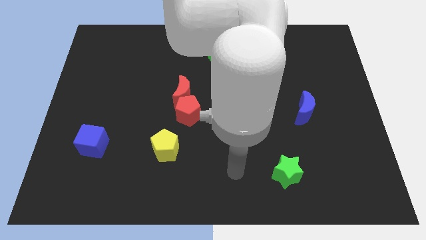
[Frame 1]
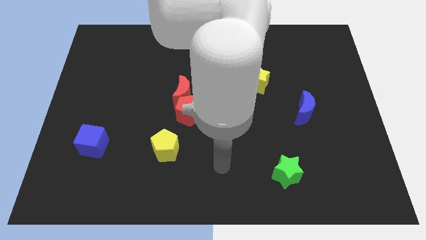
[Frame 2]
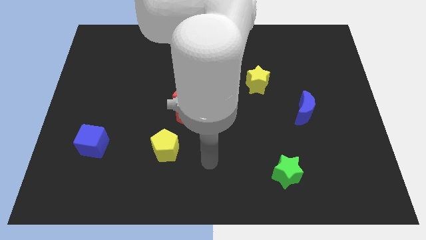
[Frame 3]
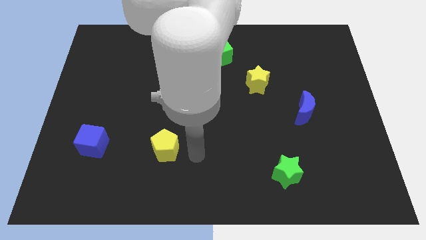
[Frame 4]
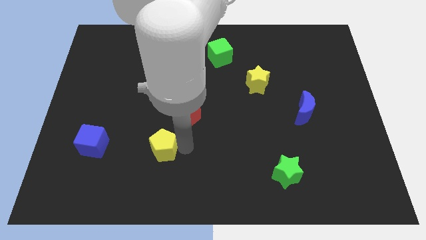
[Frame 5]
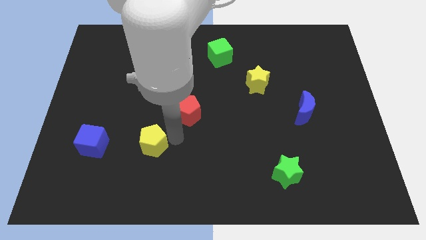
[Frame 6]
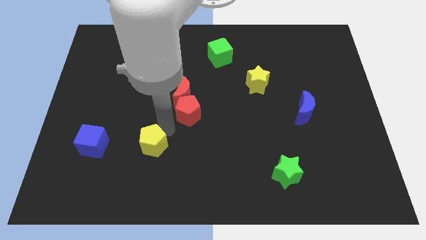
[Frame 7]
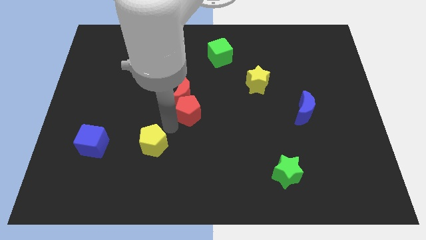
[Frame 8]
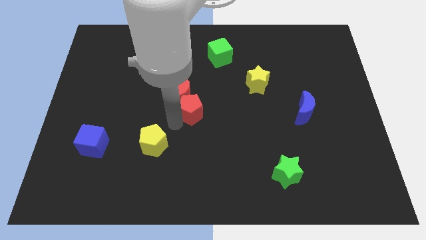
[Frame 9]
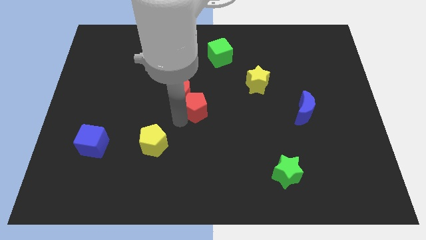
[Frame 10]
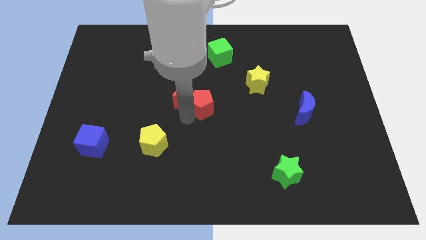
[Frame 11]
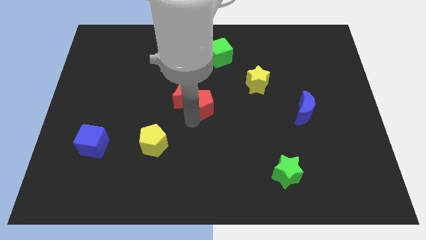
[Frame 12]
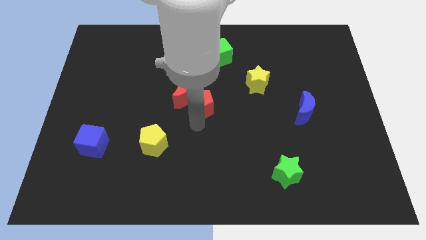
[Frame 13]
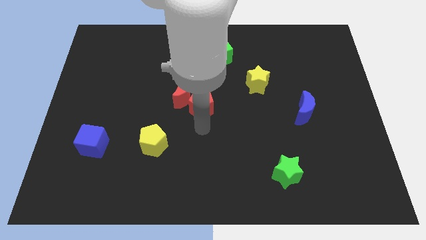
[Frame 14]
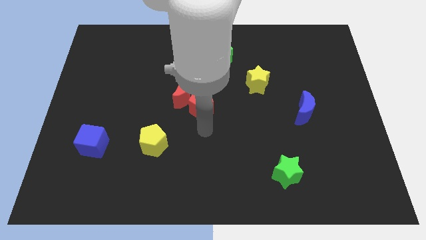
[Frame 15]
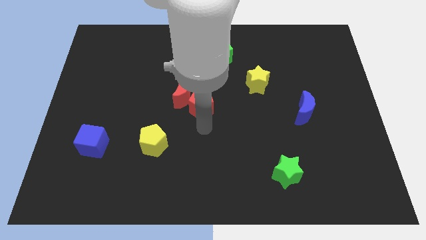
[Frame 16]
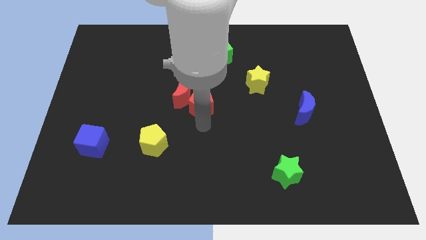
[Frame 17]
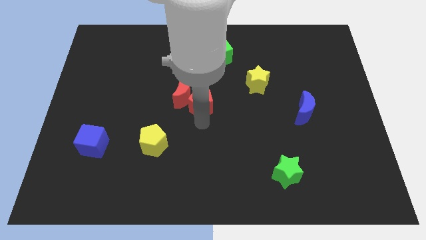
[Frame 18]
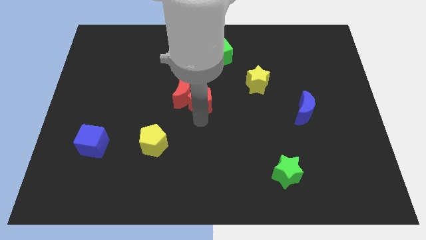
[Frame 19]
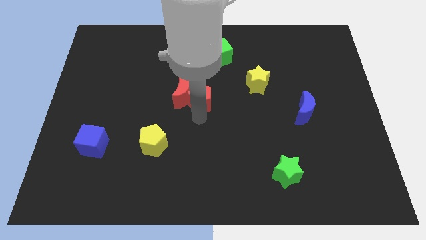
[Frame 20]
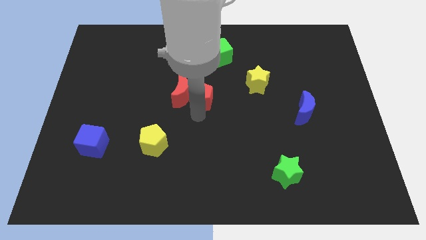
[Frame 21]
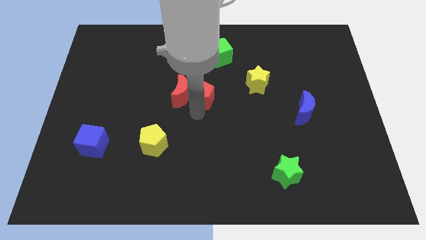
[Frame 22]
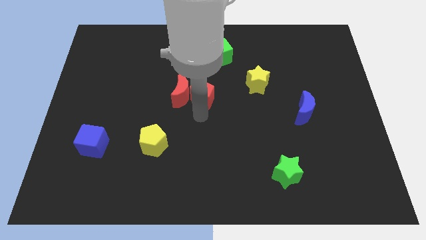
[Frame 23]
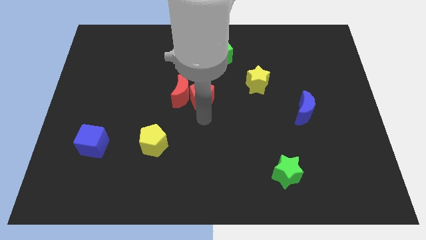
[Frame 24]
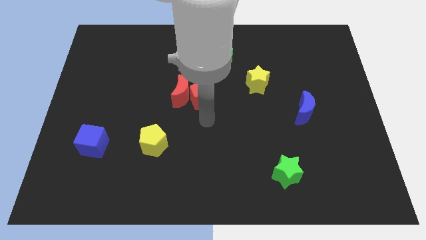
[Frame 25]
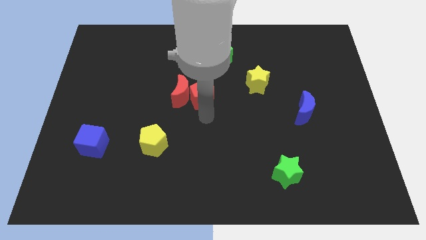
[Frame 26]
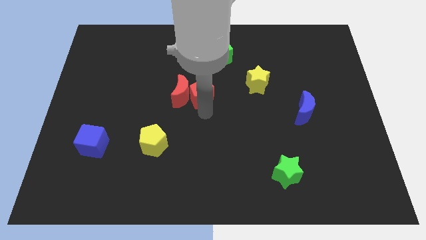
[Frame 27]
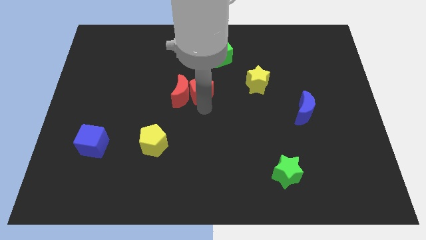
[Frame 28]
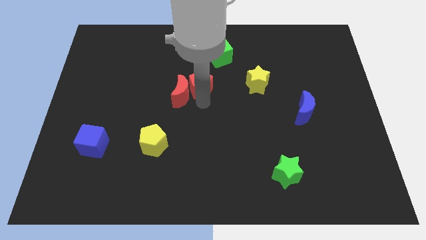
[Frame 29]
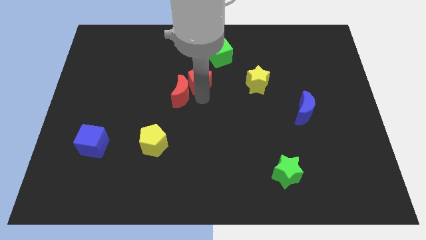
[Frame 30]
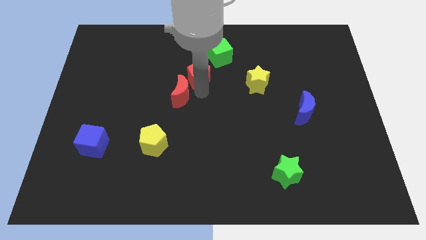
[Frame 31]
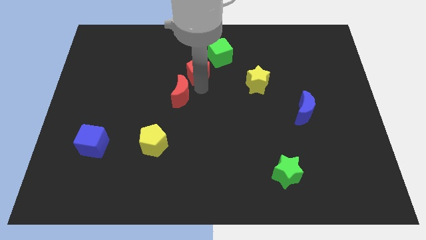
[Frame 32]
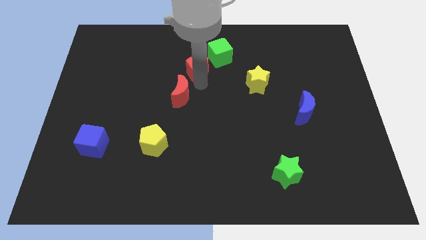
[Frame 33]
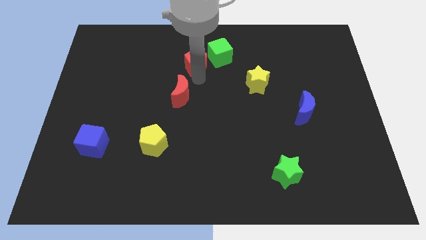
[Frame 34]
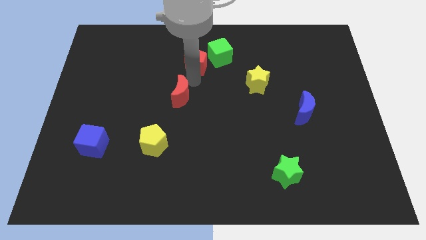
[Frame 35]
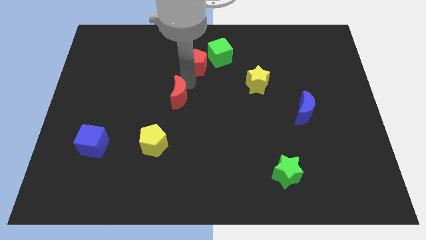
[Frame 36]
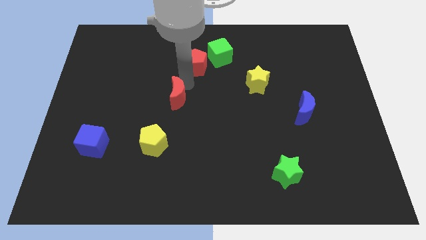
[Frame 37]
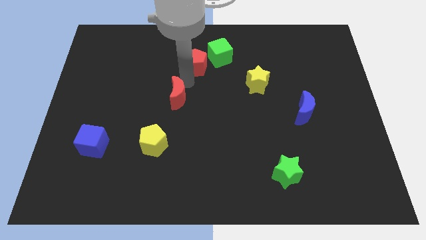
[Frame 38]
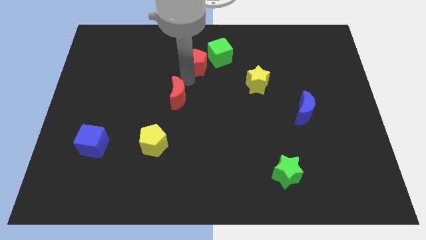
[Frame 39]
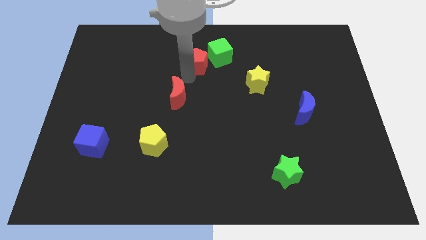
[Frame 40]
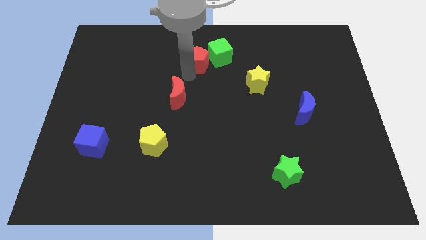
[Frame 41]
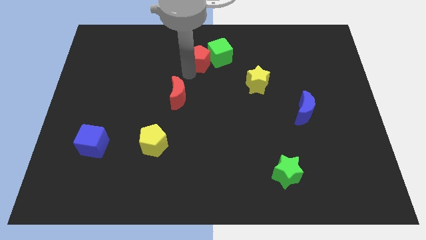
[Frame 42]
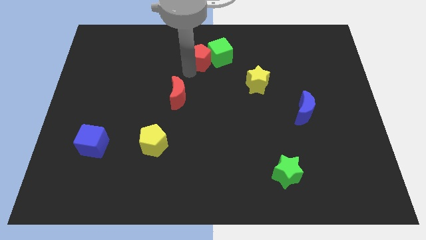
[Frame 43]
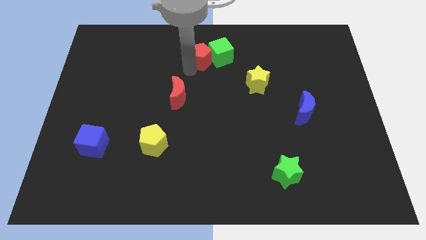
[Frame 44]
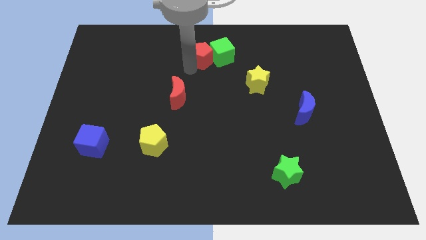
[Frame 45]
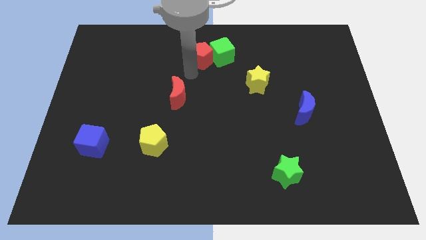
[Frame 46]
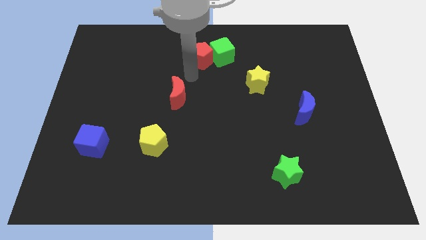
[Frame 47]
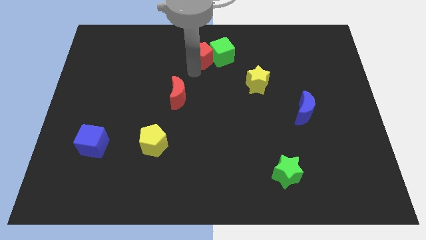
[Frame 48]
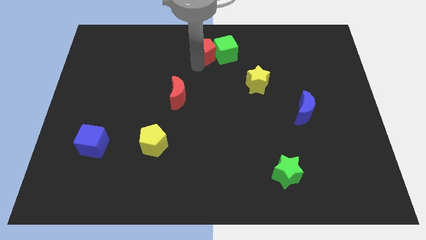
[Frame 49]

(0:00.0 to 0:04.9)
push the red pentagon to the top side

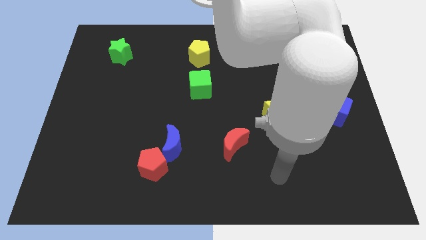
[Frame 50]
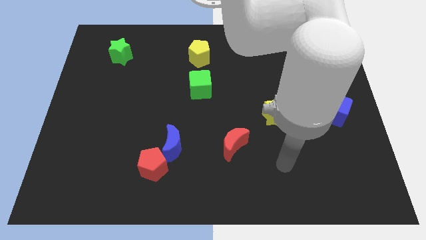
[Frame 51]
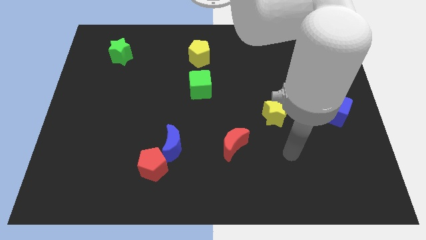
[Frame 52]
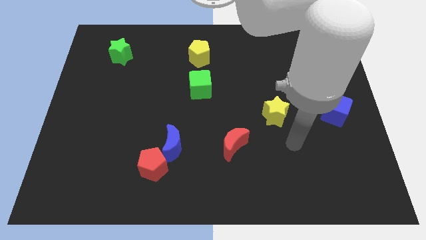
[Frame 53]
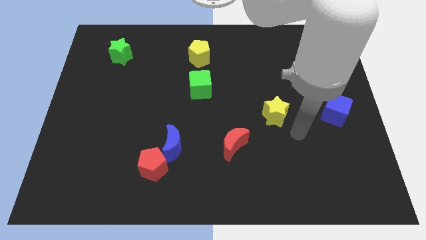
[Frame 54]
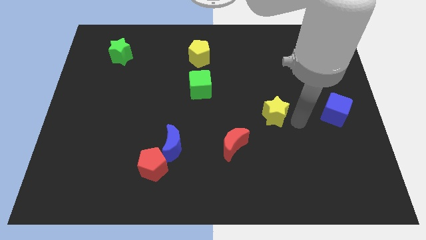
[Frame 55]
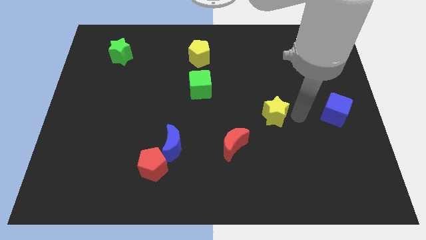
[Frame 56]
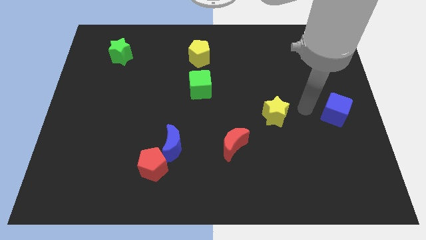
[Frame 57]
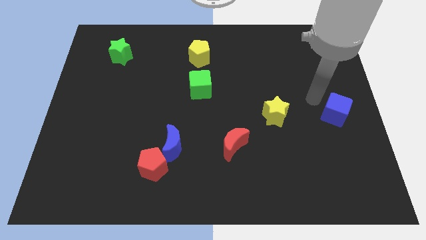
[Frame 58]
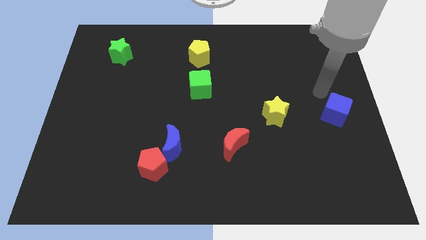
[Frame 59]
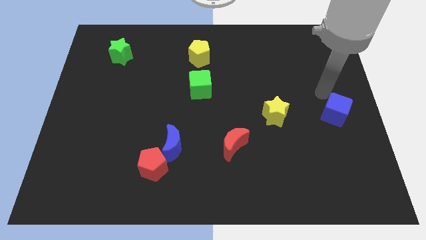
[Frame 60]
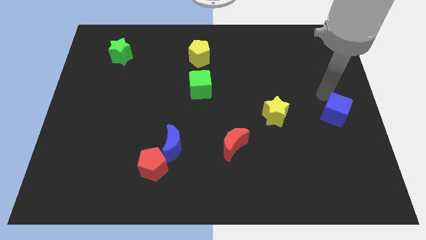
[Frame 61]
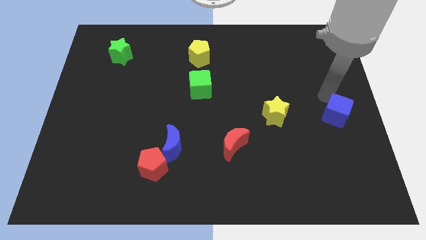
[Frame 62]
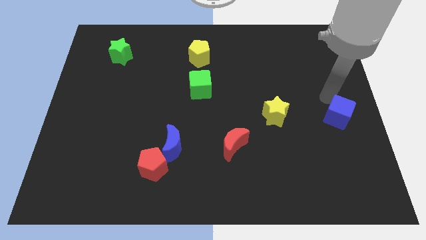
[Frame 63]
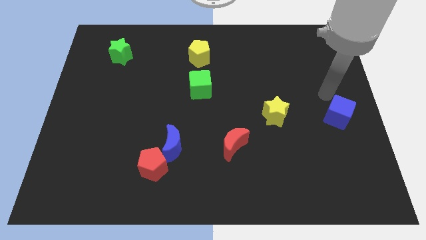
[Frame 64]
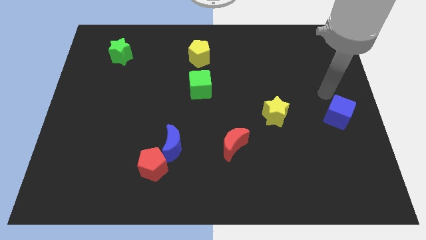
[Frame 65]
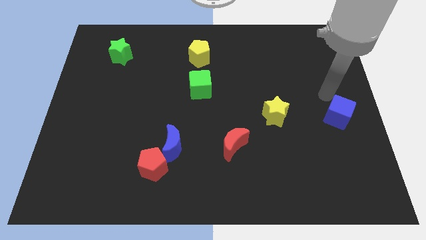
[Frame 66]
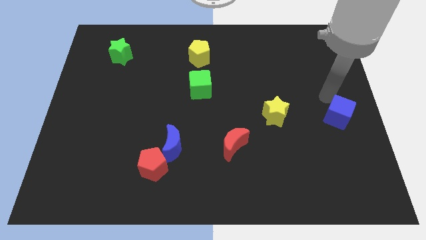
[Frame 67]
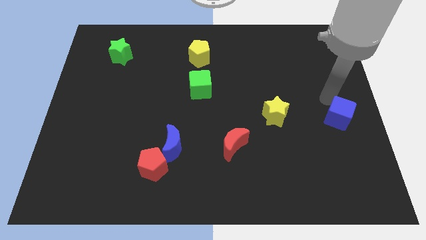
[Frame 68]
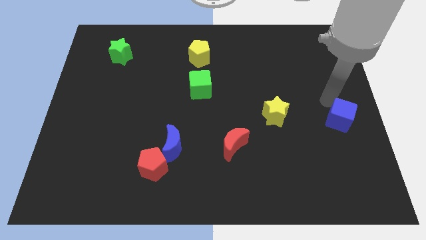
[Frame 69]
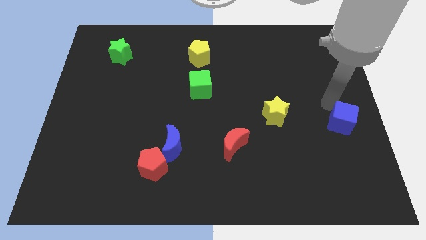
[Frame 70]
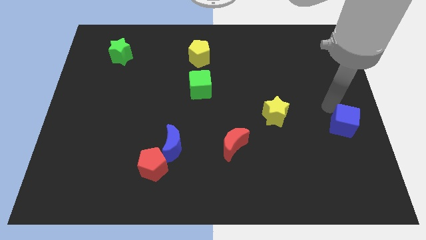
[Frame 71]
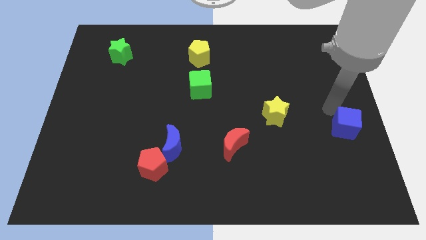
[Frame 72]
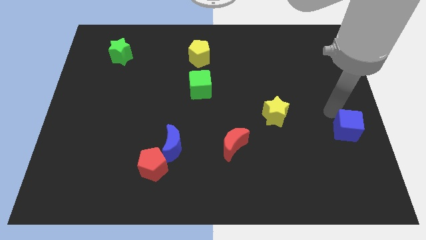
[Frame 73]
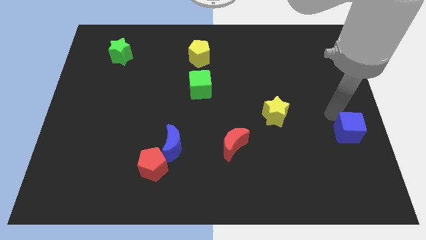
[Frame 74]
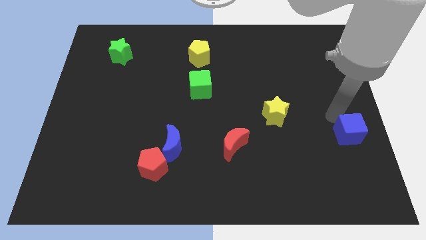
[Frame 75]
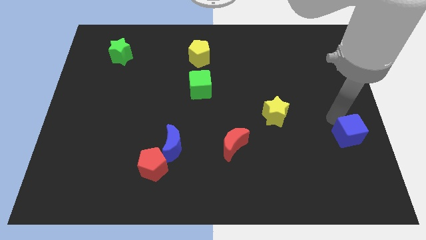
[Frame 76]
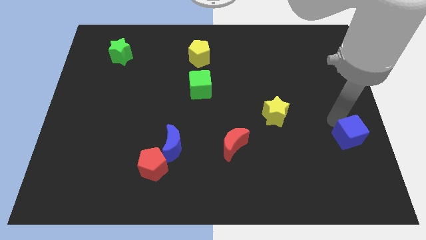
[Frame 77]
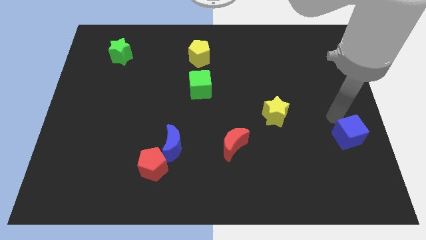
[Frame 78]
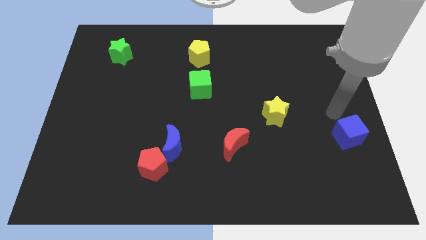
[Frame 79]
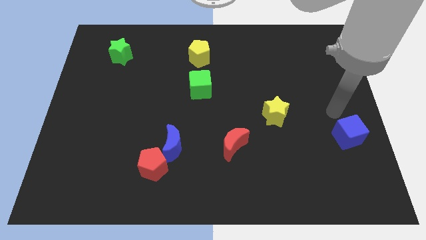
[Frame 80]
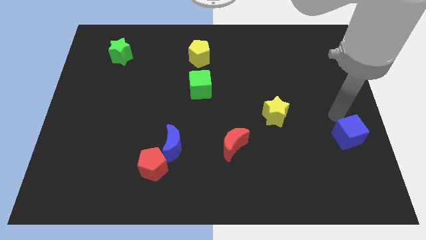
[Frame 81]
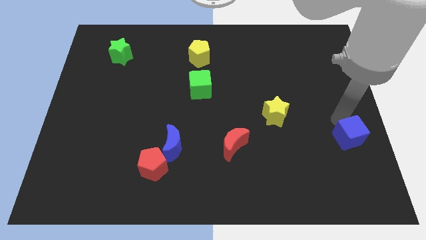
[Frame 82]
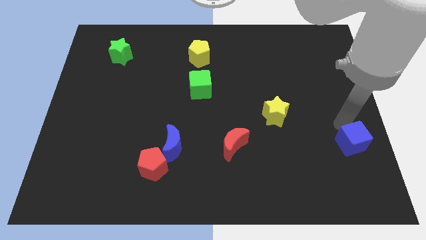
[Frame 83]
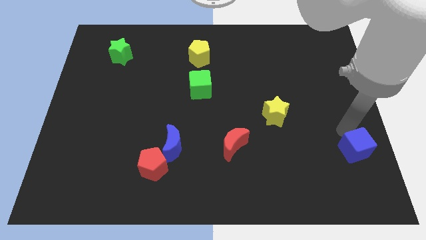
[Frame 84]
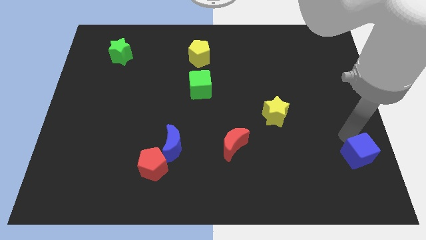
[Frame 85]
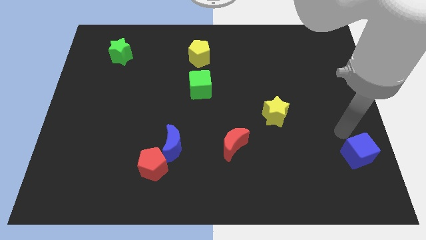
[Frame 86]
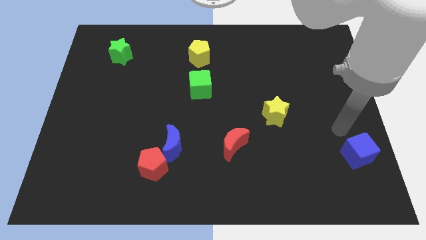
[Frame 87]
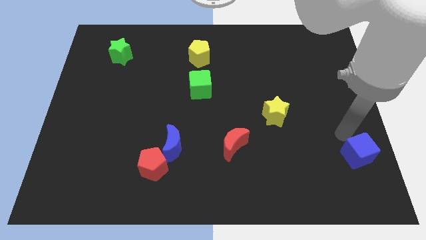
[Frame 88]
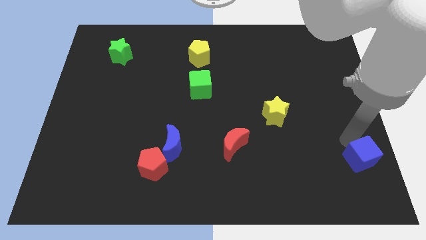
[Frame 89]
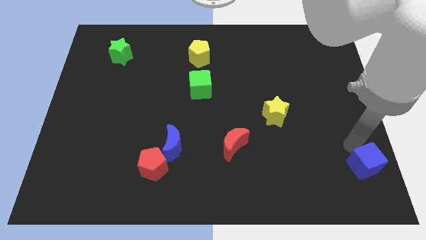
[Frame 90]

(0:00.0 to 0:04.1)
slide the blue cube to the lower right corner
